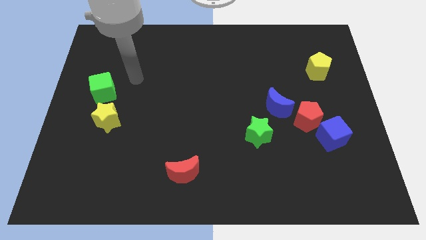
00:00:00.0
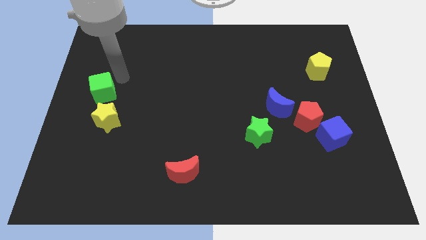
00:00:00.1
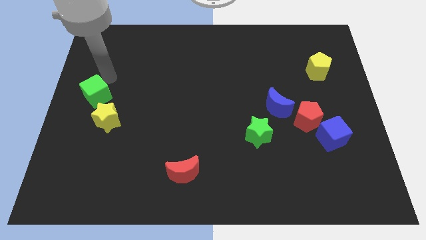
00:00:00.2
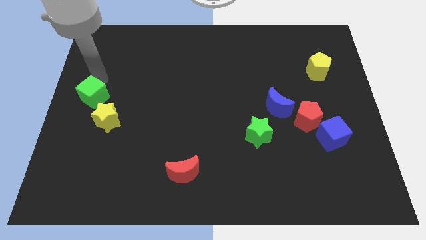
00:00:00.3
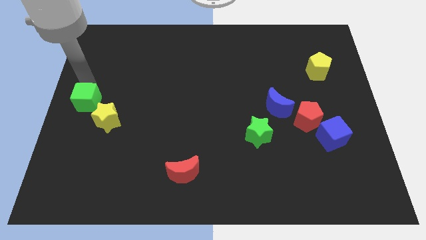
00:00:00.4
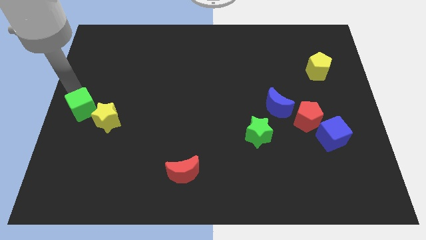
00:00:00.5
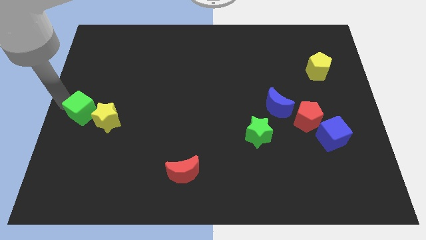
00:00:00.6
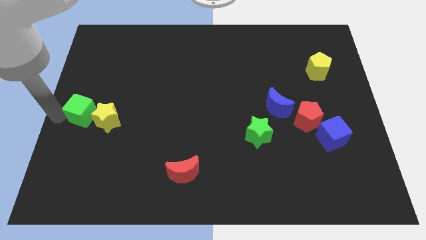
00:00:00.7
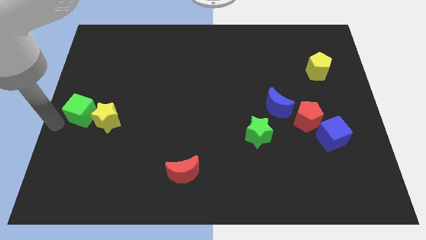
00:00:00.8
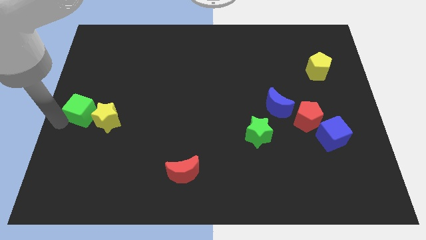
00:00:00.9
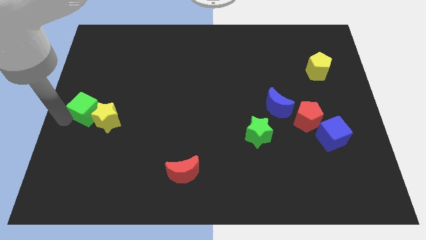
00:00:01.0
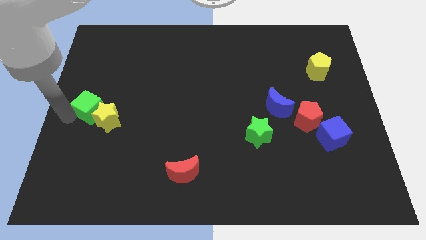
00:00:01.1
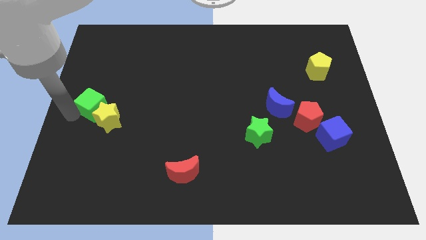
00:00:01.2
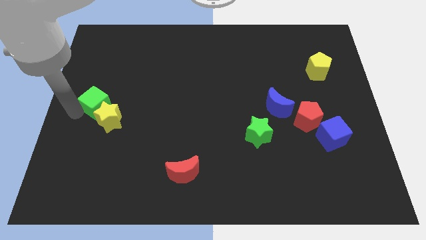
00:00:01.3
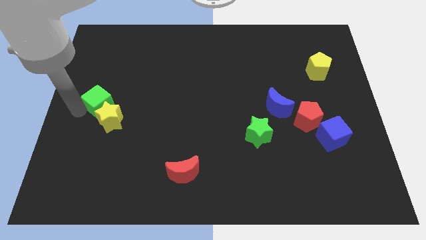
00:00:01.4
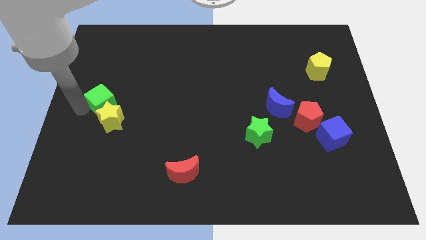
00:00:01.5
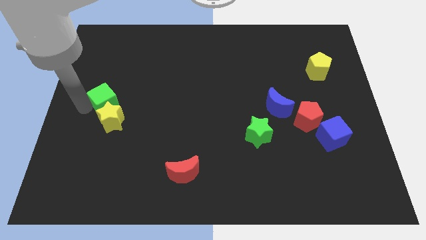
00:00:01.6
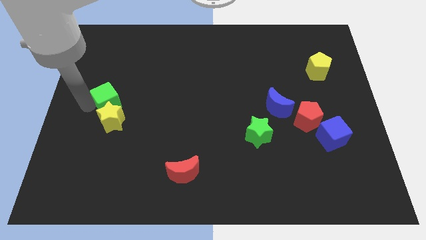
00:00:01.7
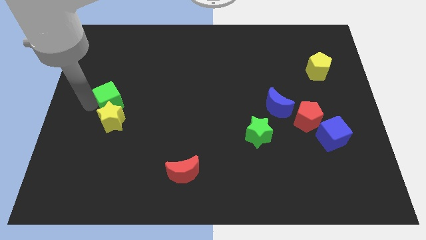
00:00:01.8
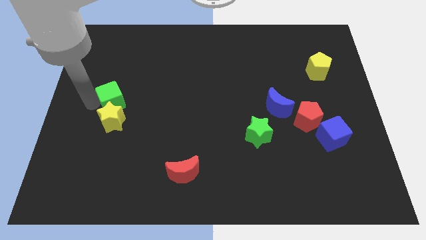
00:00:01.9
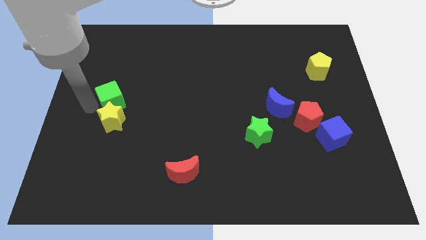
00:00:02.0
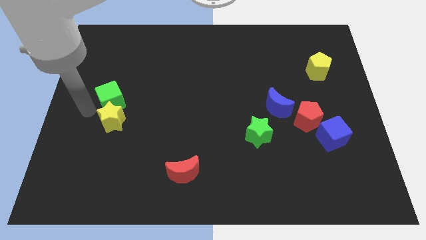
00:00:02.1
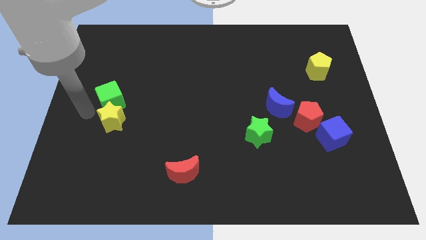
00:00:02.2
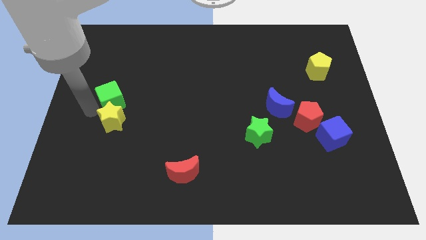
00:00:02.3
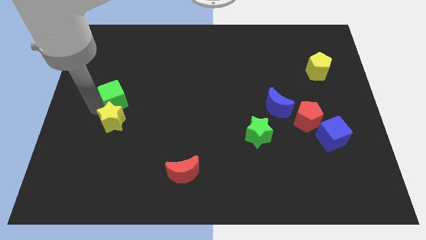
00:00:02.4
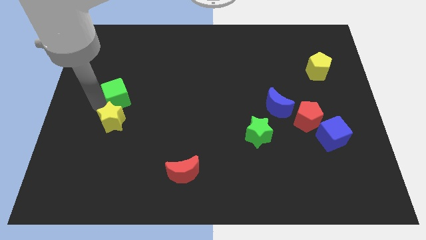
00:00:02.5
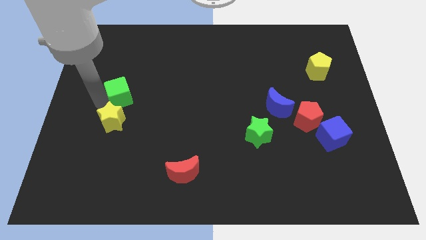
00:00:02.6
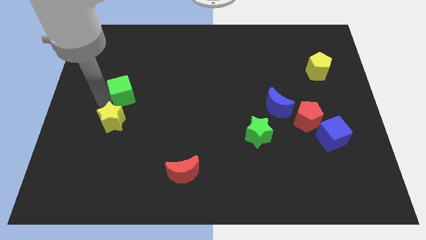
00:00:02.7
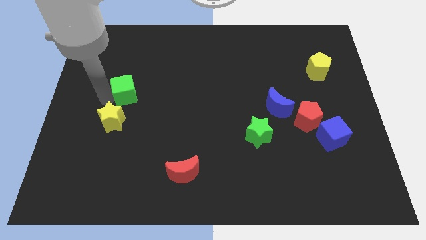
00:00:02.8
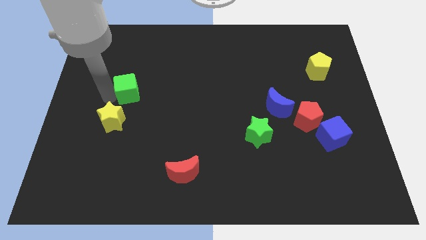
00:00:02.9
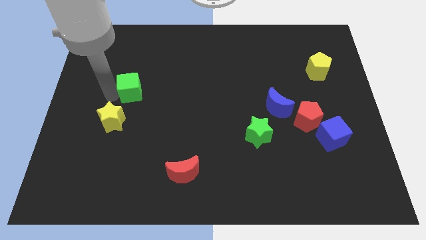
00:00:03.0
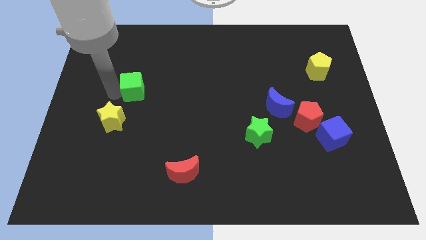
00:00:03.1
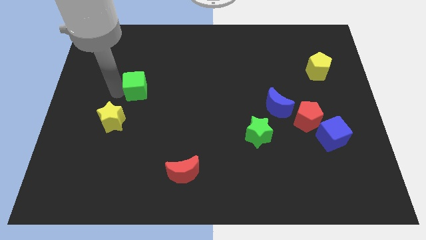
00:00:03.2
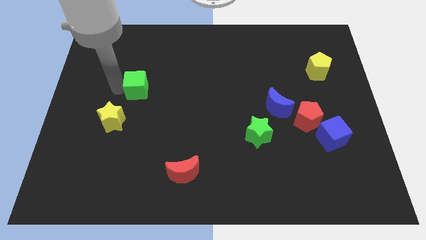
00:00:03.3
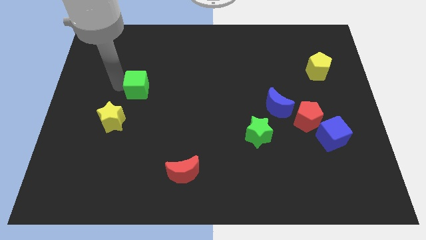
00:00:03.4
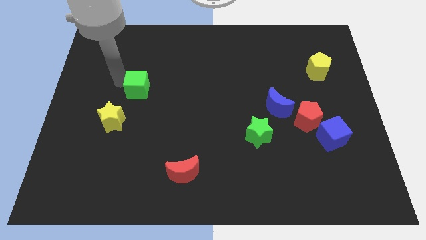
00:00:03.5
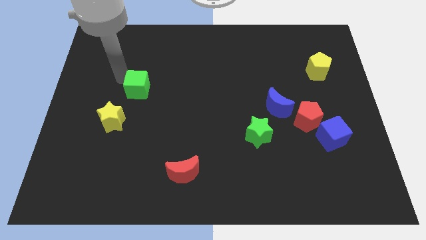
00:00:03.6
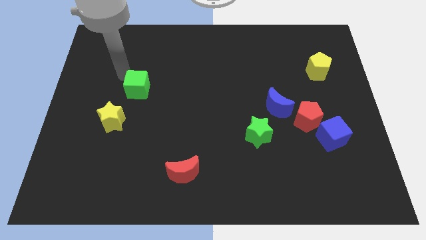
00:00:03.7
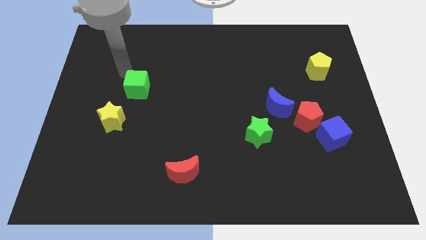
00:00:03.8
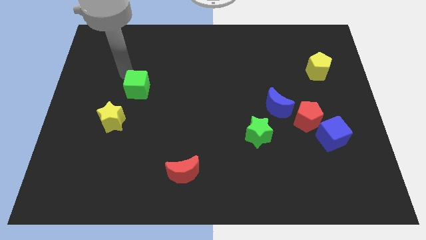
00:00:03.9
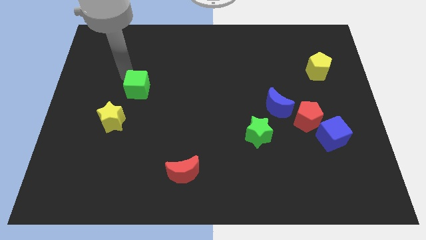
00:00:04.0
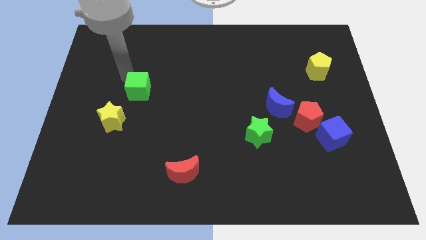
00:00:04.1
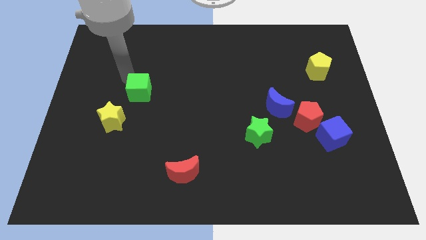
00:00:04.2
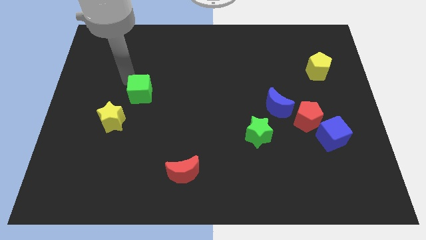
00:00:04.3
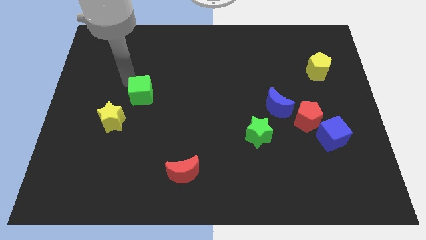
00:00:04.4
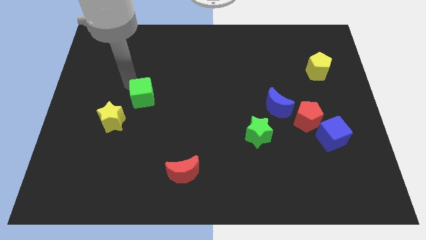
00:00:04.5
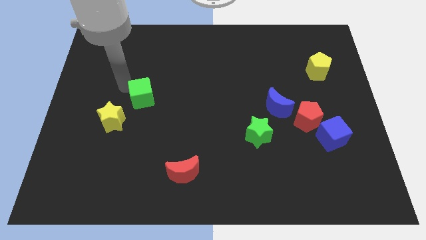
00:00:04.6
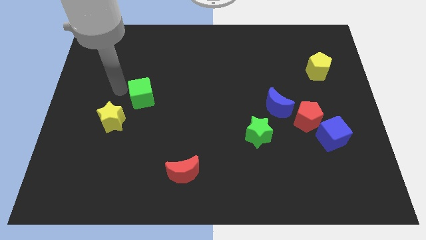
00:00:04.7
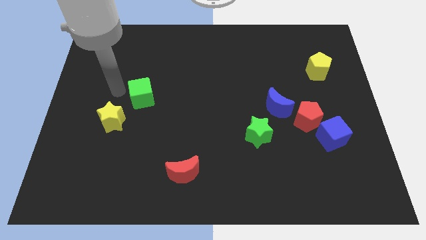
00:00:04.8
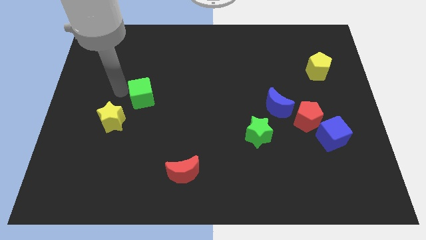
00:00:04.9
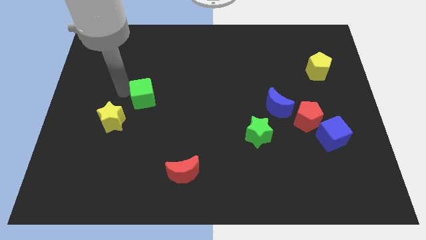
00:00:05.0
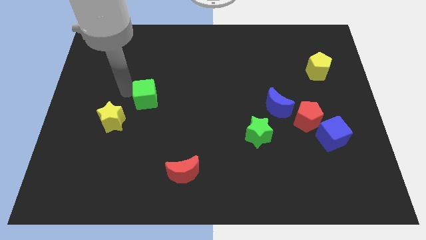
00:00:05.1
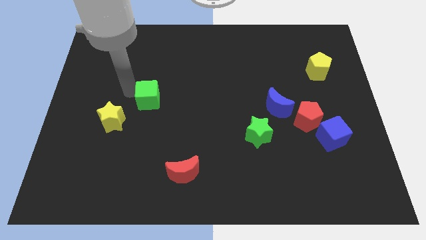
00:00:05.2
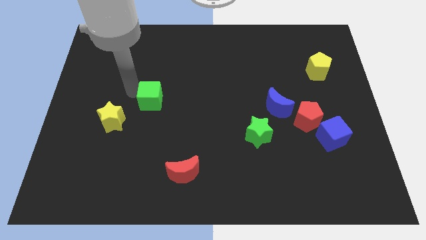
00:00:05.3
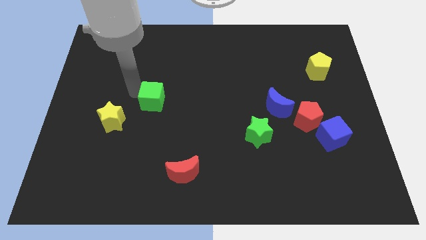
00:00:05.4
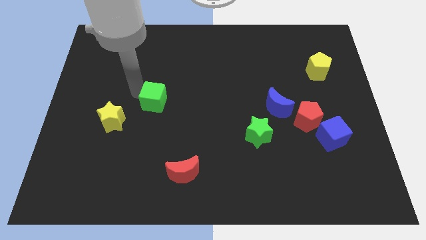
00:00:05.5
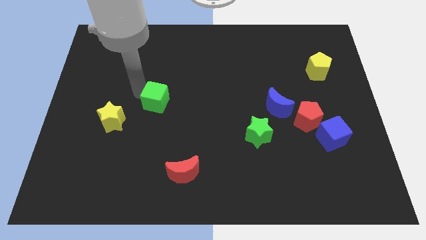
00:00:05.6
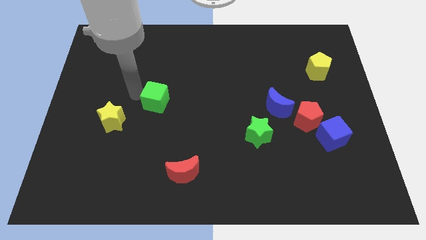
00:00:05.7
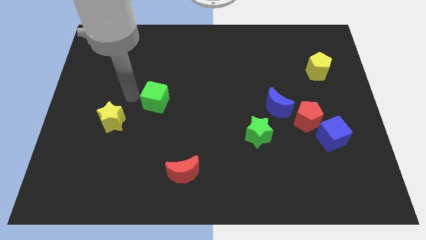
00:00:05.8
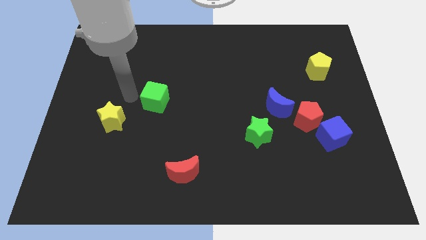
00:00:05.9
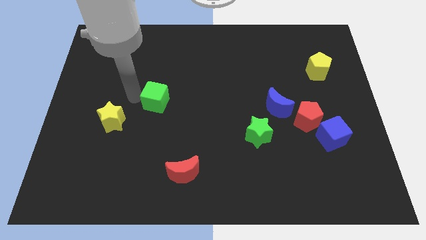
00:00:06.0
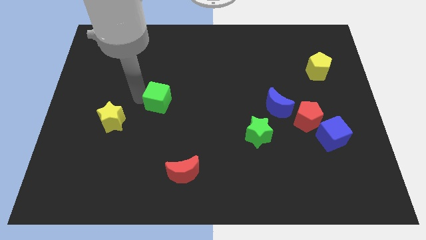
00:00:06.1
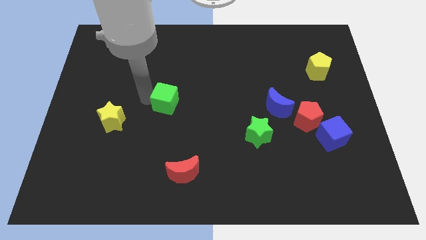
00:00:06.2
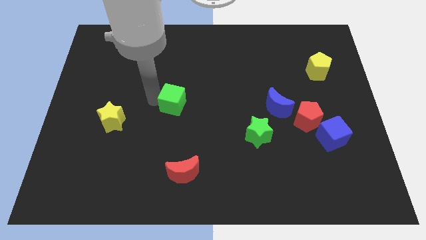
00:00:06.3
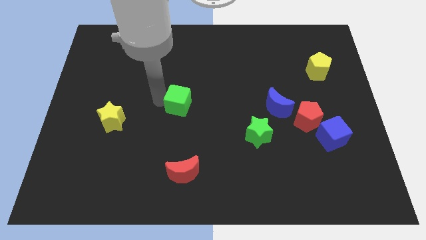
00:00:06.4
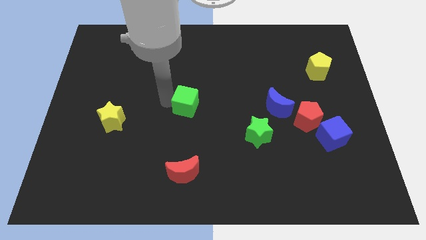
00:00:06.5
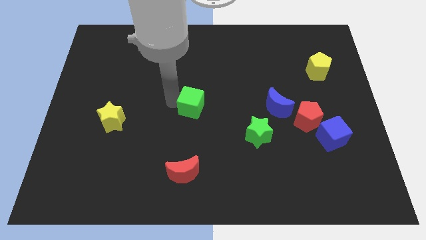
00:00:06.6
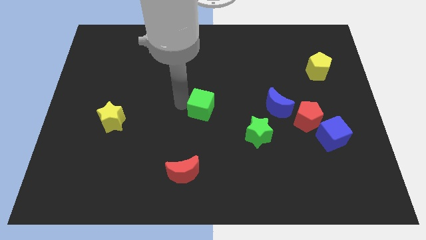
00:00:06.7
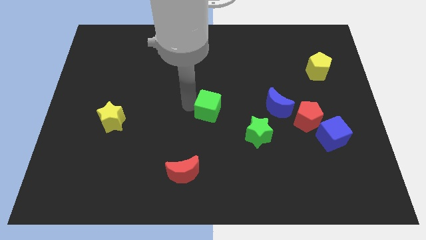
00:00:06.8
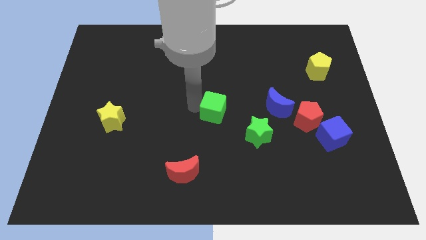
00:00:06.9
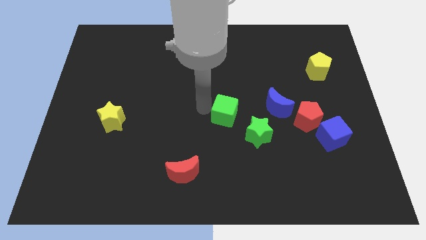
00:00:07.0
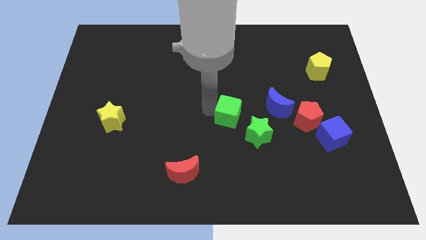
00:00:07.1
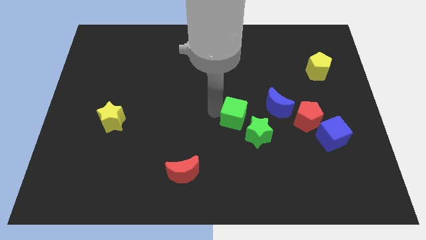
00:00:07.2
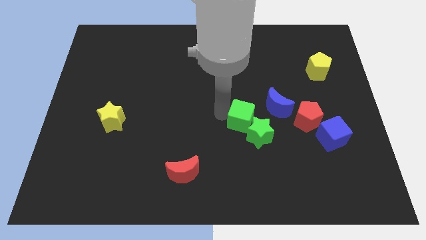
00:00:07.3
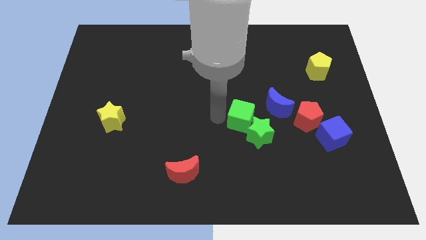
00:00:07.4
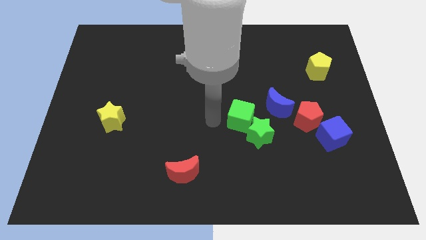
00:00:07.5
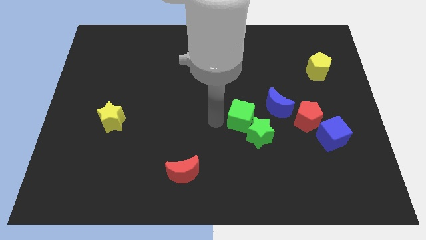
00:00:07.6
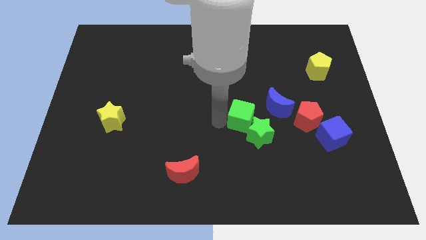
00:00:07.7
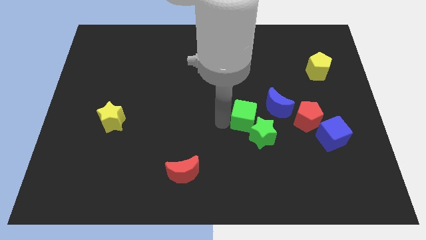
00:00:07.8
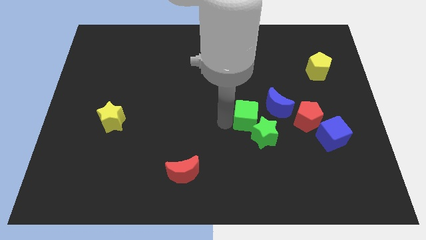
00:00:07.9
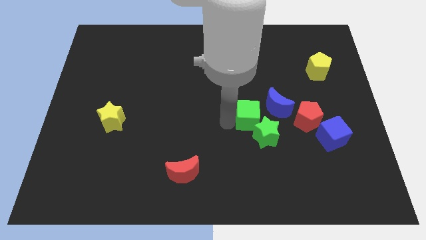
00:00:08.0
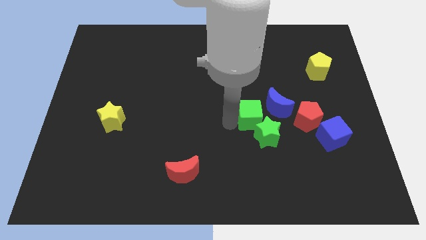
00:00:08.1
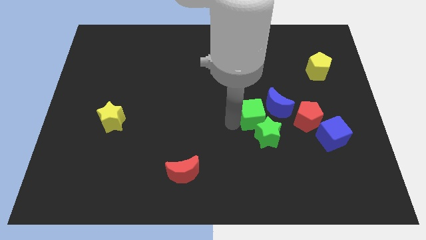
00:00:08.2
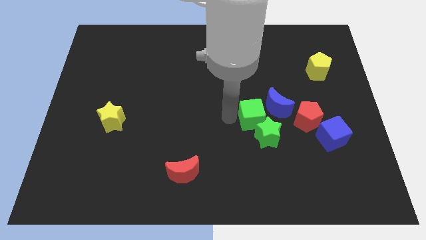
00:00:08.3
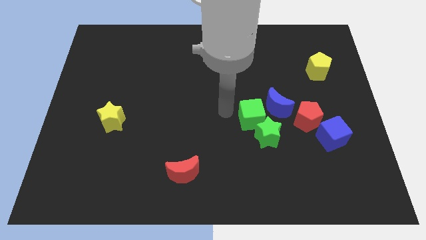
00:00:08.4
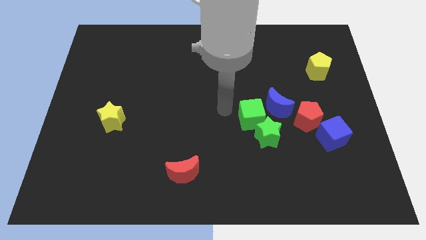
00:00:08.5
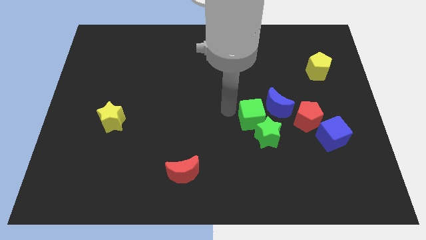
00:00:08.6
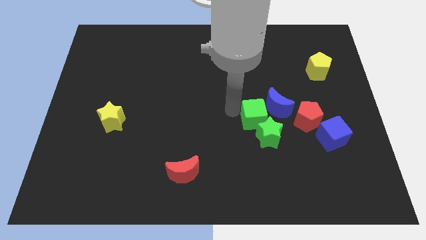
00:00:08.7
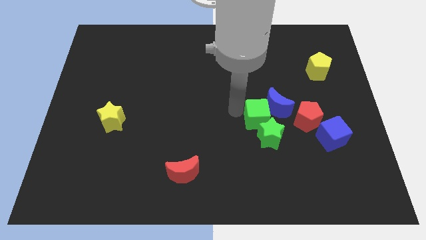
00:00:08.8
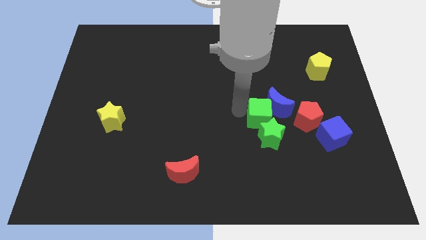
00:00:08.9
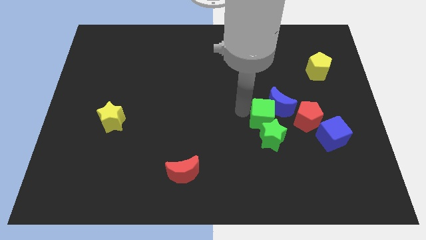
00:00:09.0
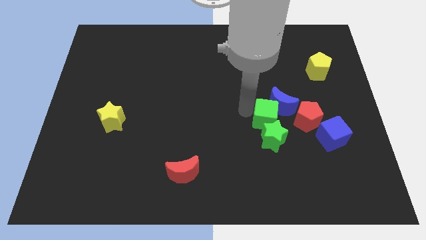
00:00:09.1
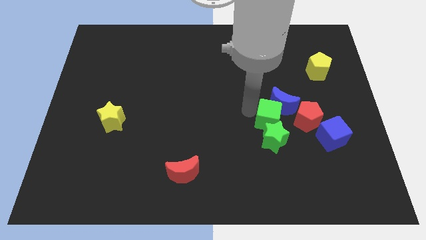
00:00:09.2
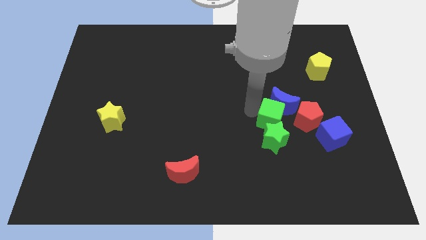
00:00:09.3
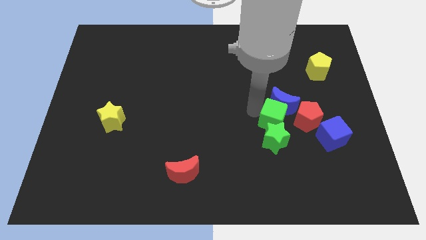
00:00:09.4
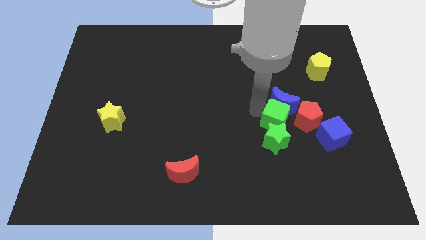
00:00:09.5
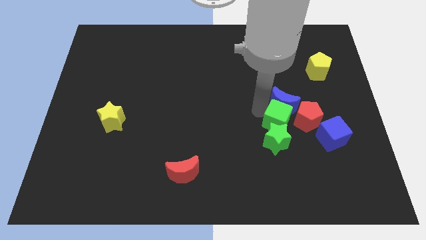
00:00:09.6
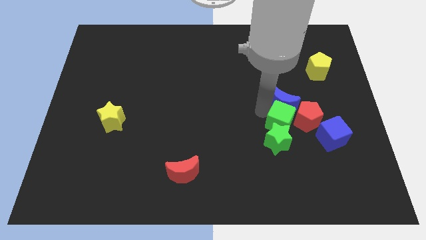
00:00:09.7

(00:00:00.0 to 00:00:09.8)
put the green cube next to the red pentagon
